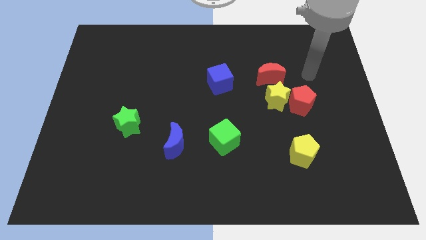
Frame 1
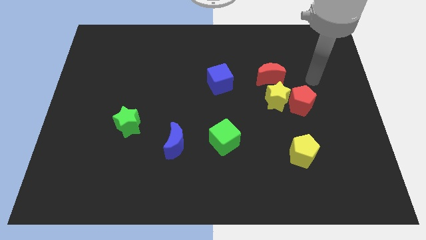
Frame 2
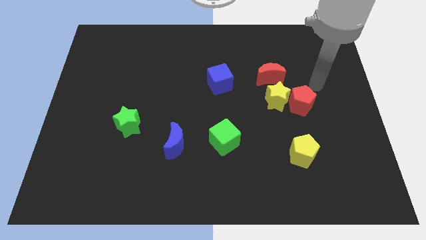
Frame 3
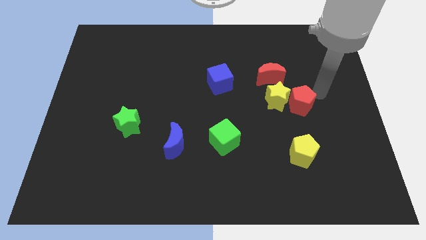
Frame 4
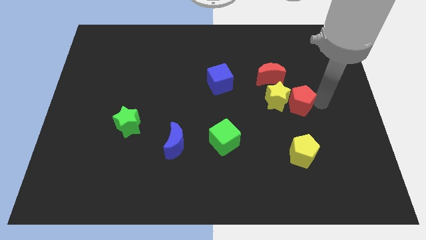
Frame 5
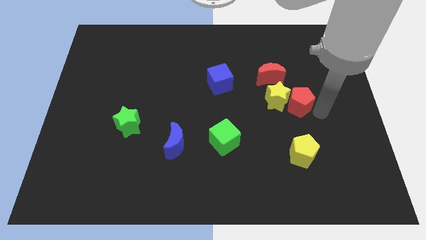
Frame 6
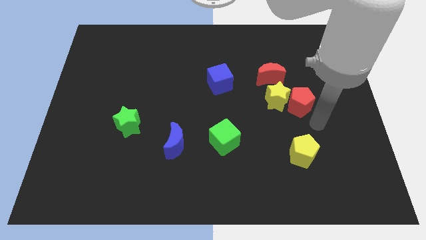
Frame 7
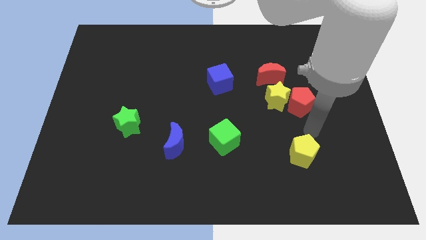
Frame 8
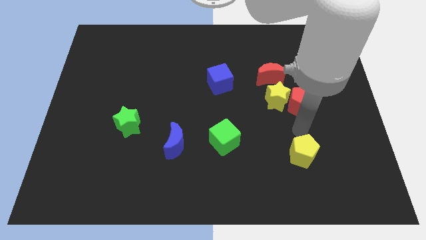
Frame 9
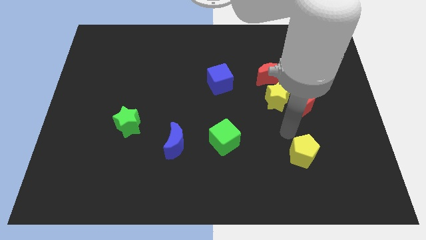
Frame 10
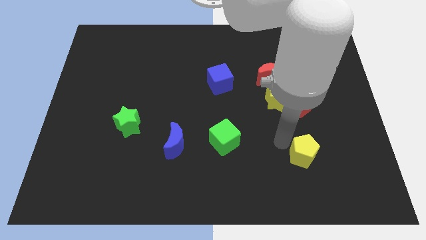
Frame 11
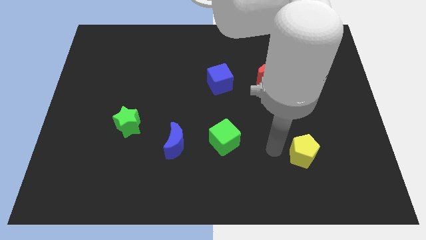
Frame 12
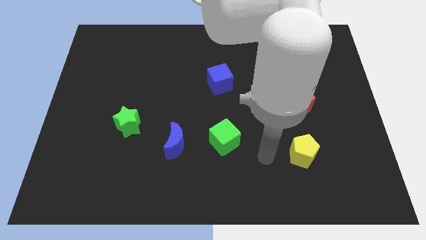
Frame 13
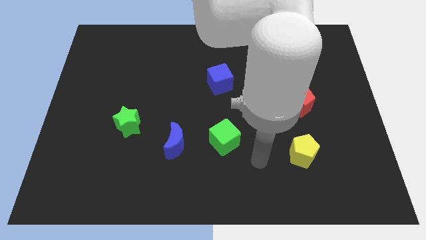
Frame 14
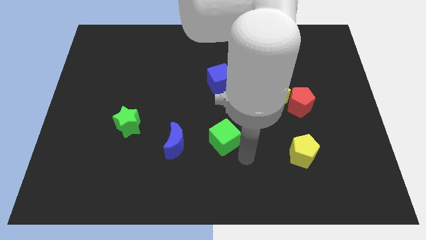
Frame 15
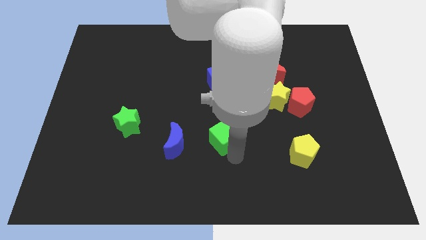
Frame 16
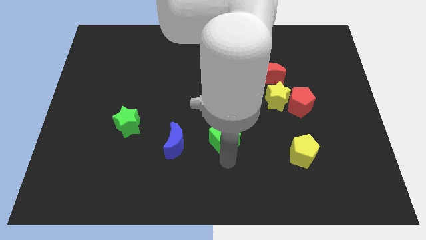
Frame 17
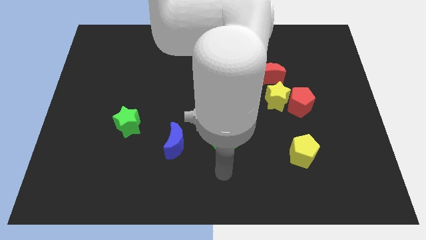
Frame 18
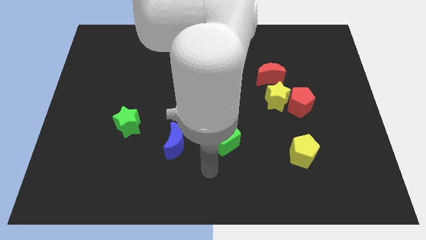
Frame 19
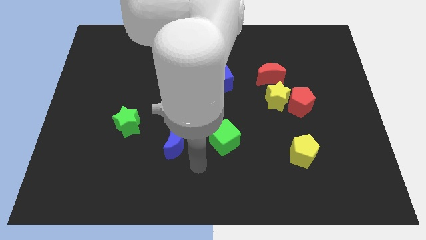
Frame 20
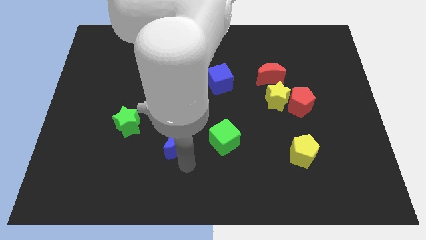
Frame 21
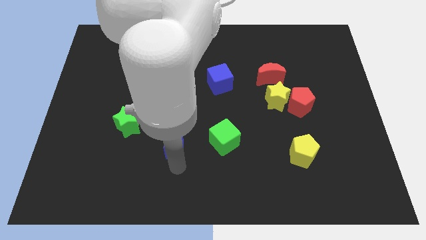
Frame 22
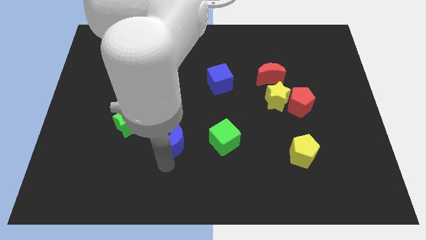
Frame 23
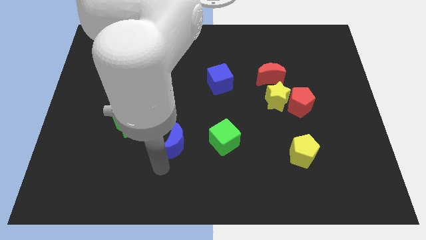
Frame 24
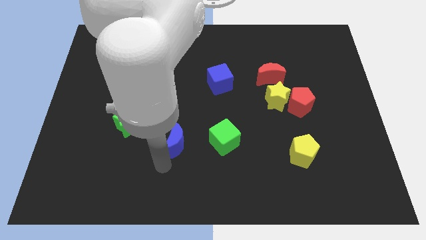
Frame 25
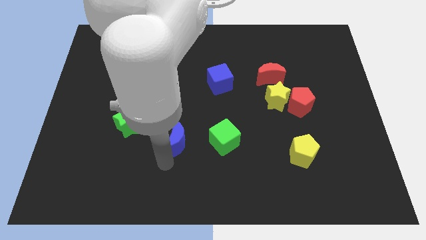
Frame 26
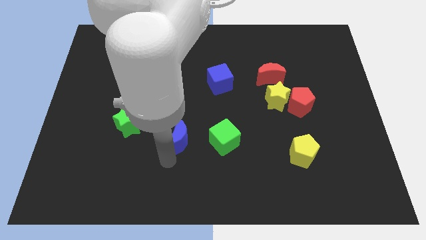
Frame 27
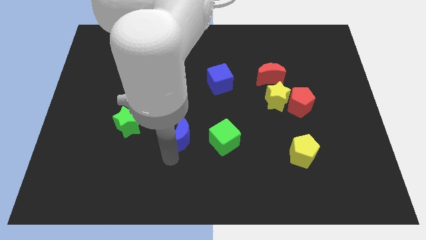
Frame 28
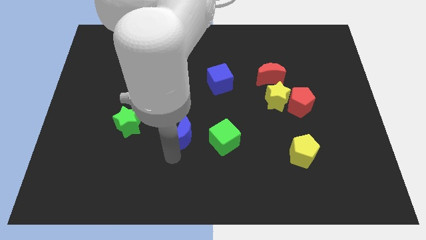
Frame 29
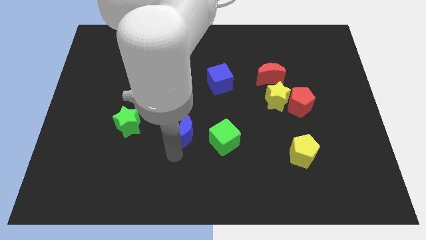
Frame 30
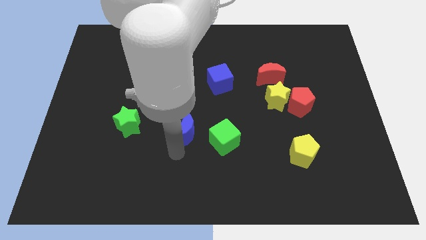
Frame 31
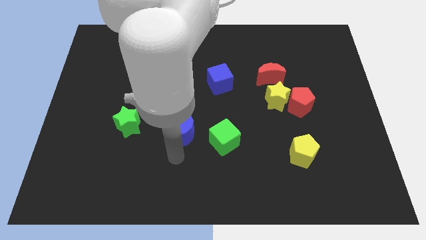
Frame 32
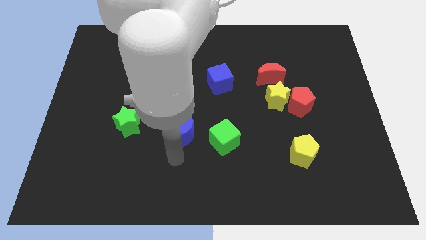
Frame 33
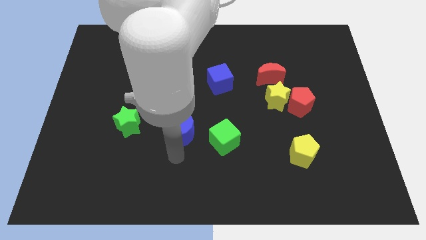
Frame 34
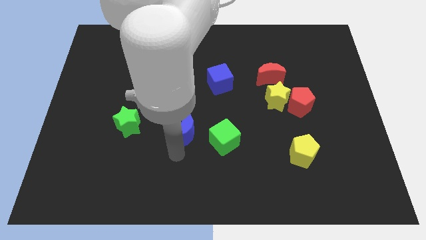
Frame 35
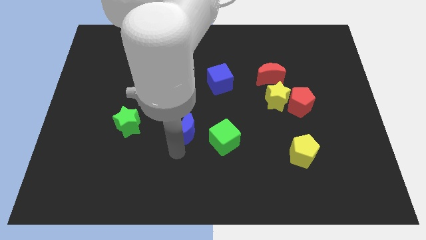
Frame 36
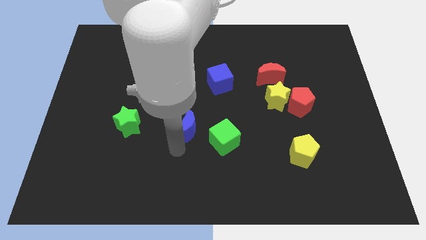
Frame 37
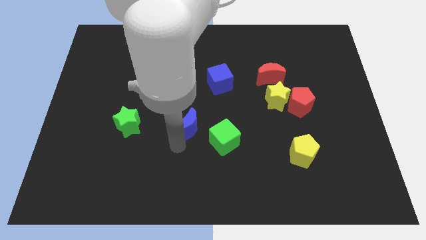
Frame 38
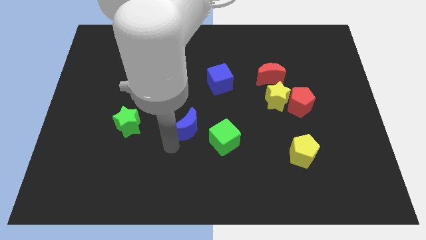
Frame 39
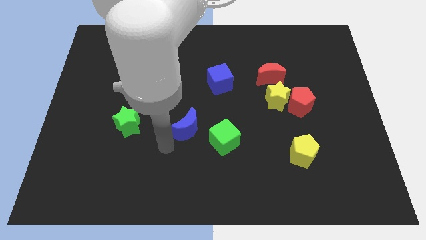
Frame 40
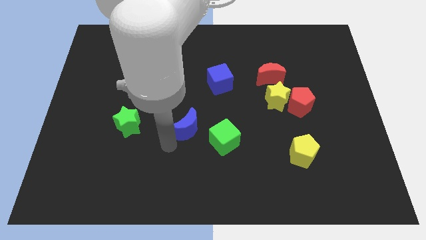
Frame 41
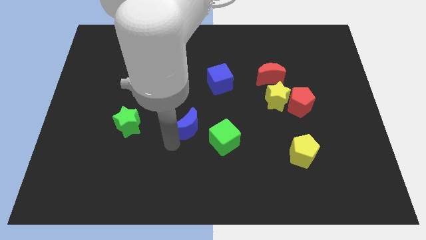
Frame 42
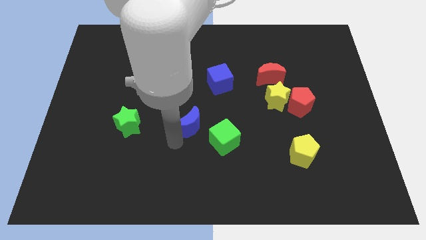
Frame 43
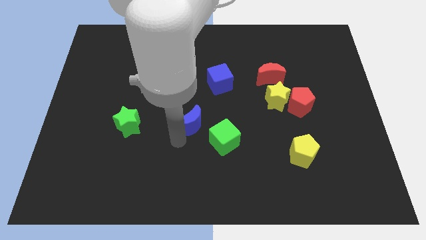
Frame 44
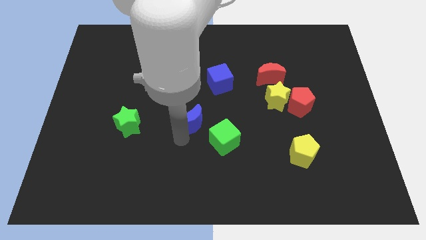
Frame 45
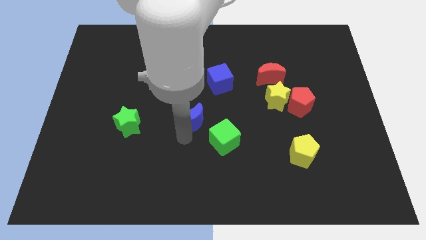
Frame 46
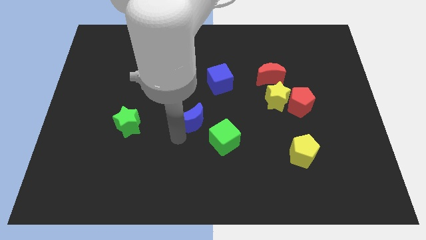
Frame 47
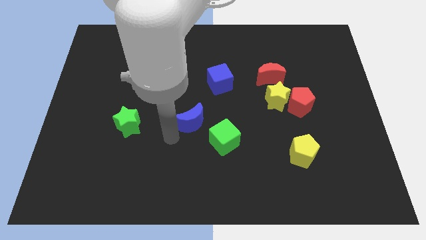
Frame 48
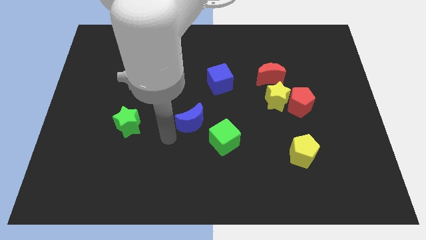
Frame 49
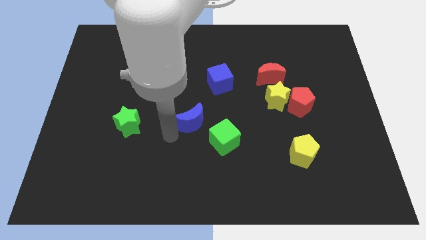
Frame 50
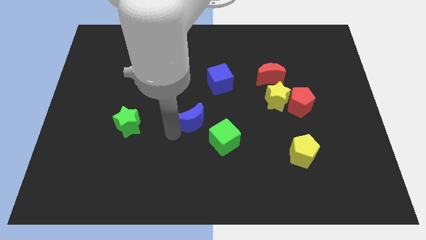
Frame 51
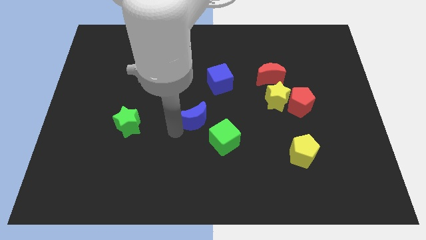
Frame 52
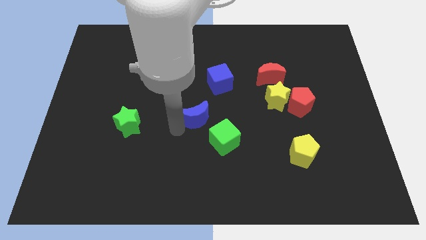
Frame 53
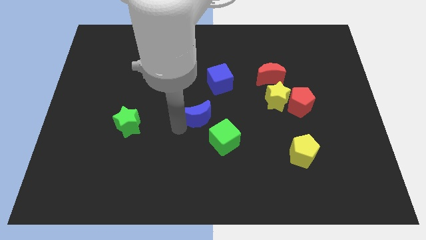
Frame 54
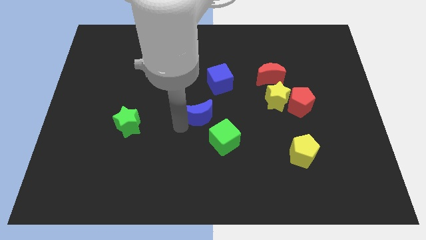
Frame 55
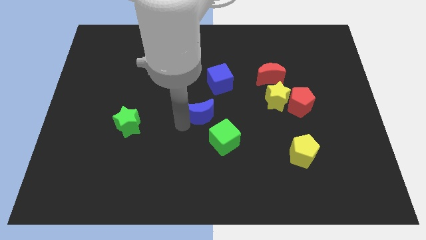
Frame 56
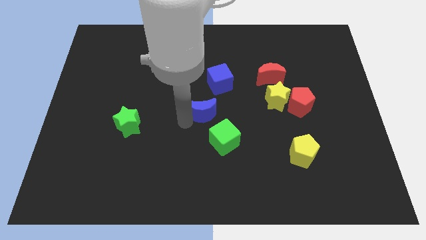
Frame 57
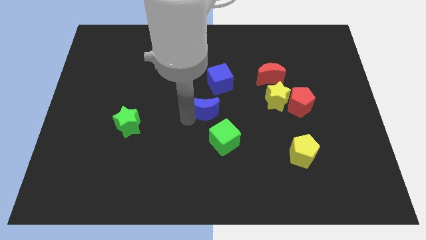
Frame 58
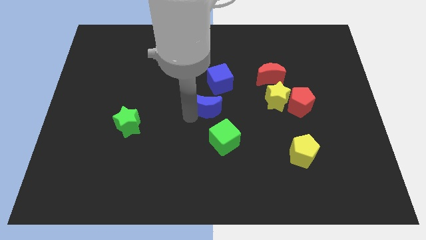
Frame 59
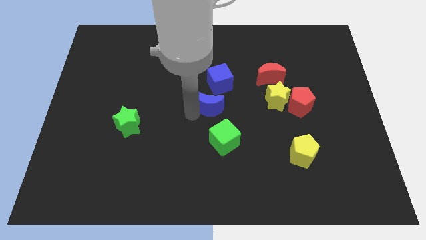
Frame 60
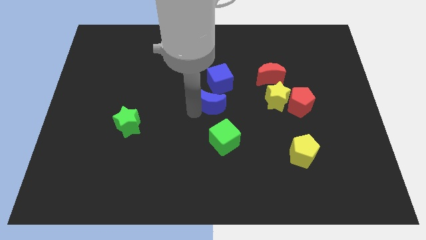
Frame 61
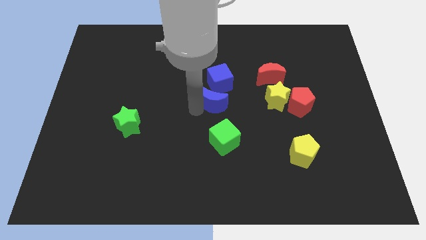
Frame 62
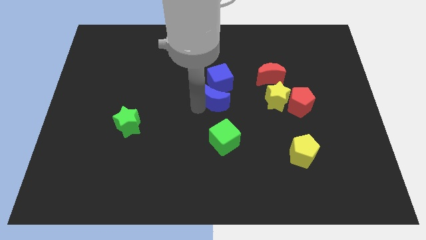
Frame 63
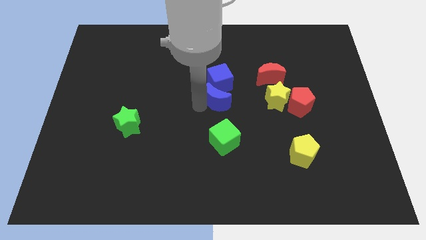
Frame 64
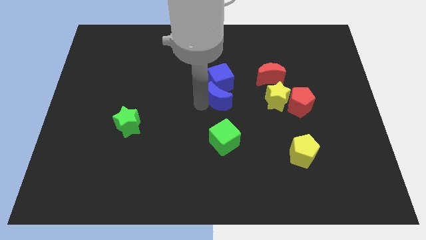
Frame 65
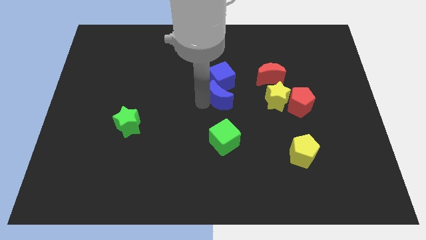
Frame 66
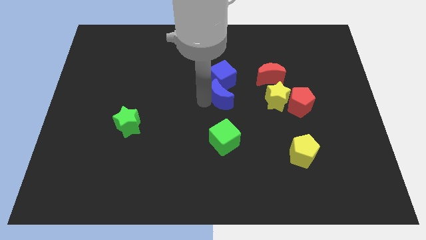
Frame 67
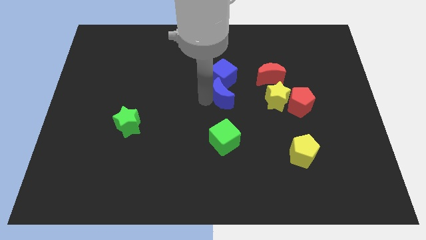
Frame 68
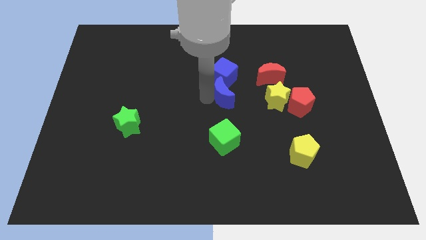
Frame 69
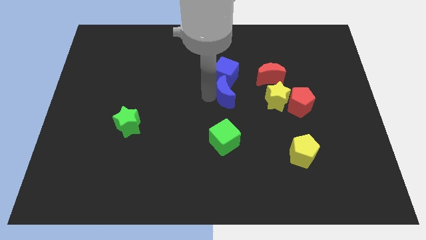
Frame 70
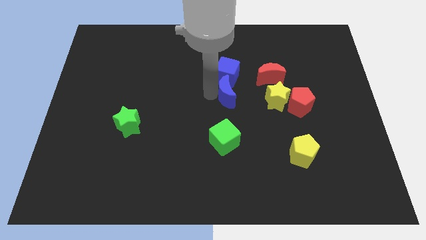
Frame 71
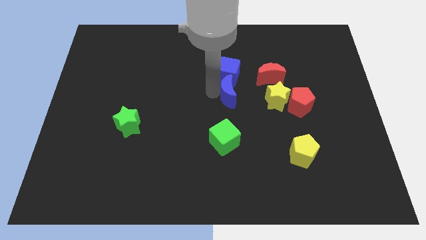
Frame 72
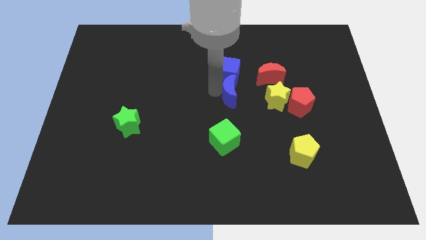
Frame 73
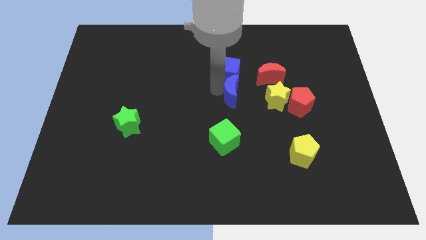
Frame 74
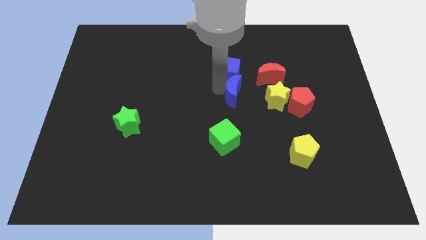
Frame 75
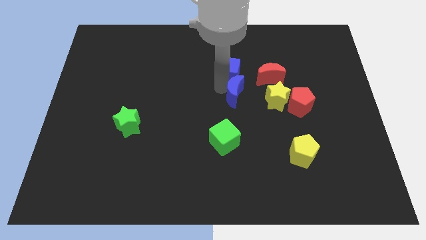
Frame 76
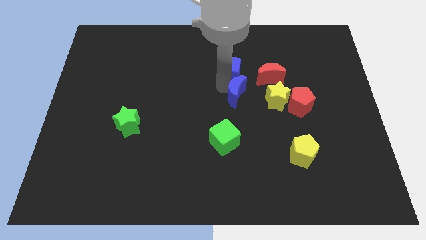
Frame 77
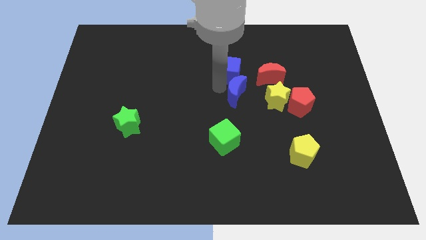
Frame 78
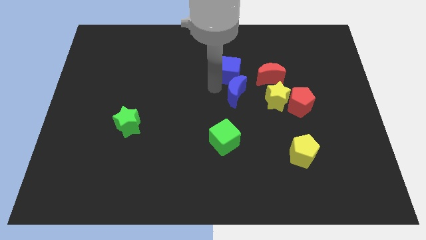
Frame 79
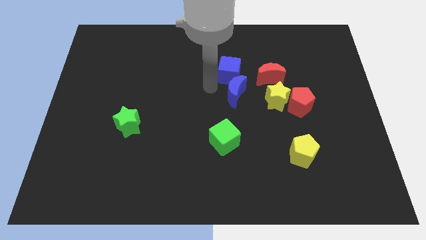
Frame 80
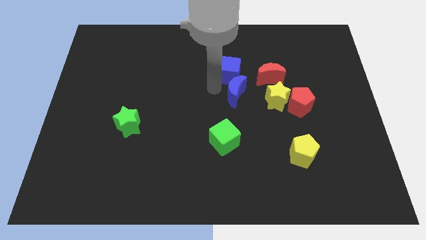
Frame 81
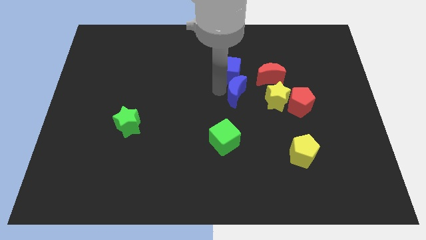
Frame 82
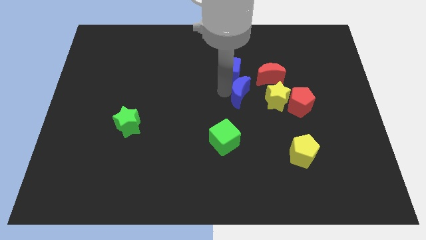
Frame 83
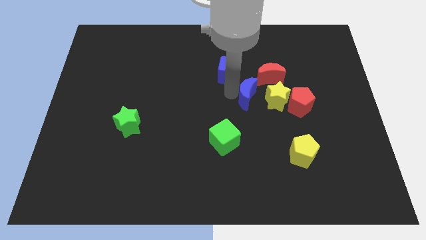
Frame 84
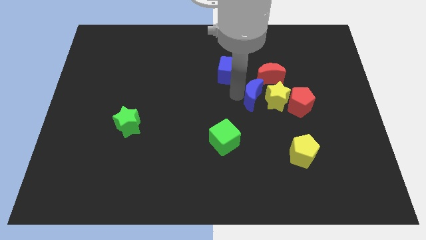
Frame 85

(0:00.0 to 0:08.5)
push the blue moon towards the yellow star
